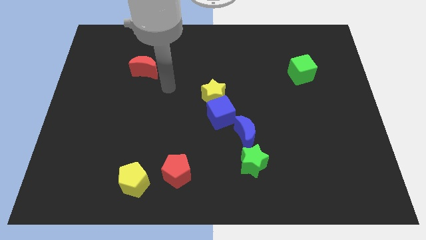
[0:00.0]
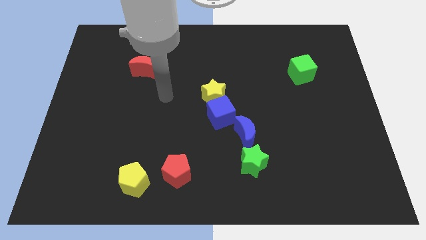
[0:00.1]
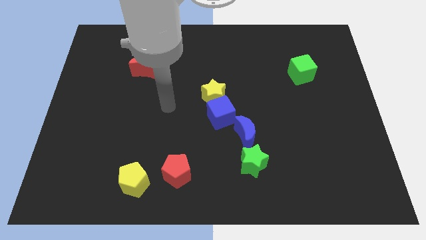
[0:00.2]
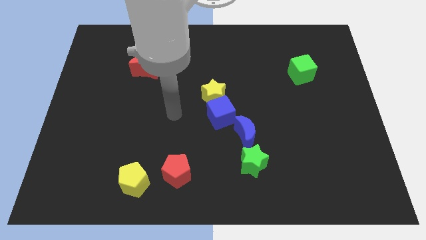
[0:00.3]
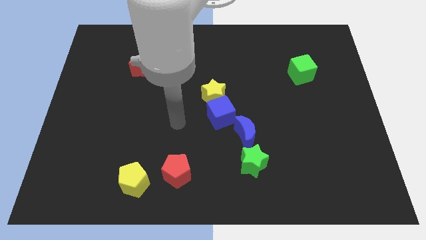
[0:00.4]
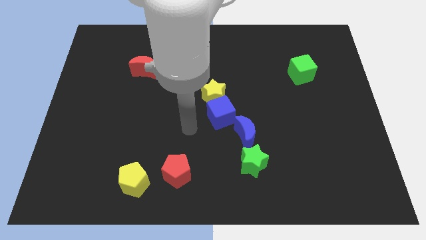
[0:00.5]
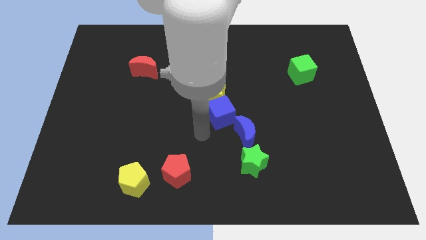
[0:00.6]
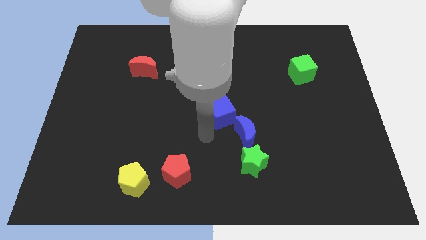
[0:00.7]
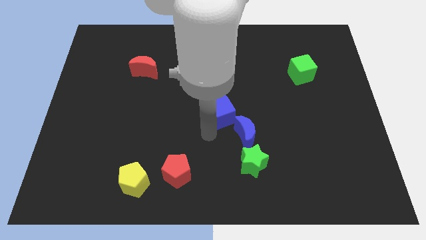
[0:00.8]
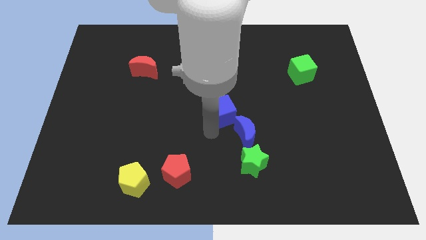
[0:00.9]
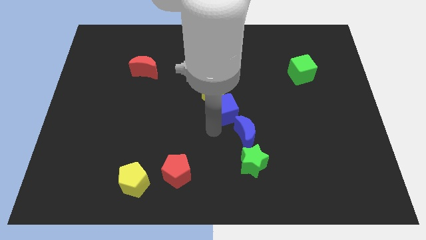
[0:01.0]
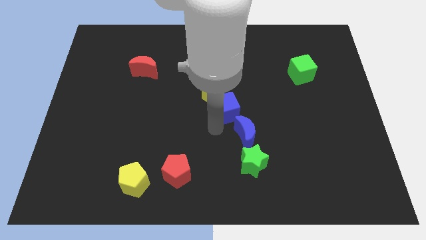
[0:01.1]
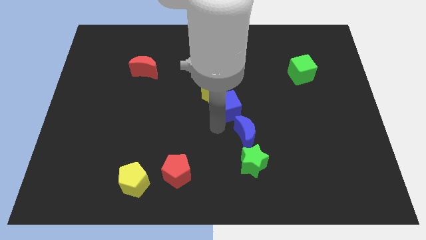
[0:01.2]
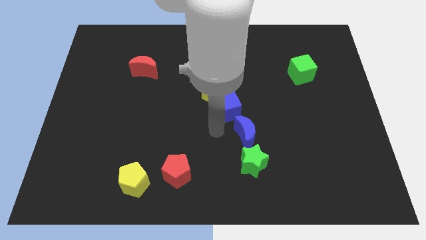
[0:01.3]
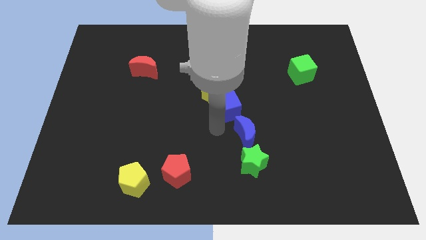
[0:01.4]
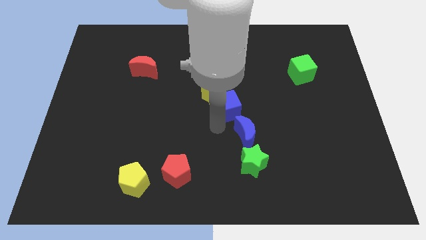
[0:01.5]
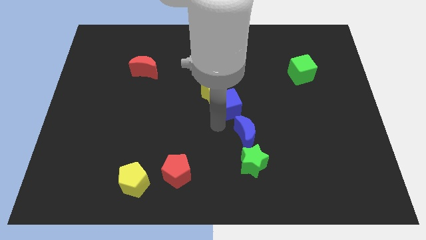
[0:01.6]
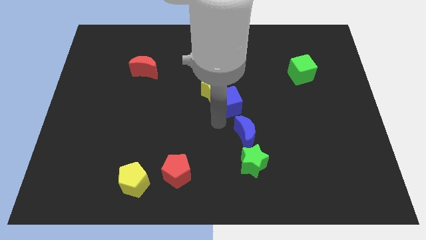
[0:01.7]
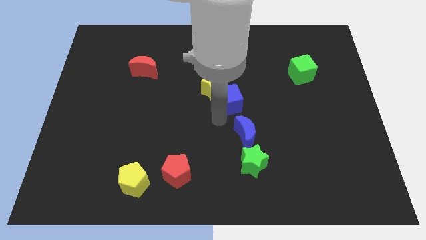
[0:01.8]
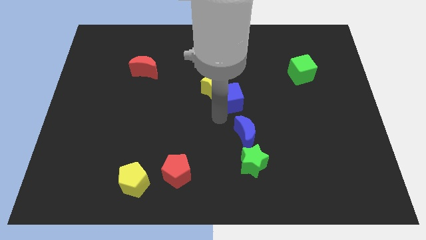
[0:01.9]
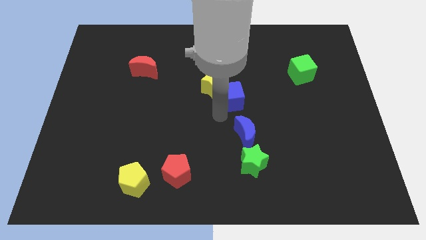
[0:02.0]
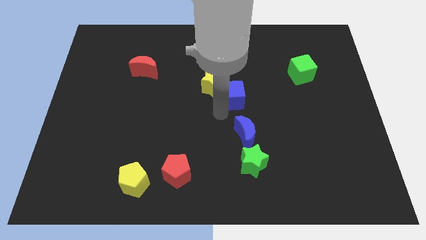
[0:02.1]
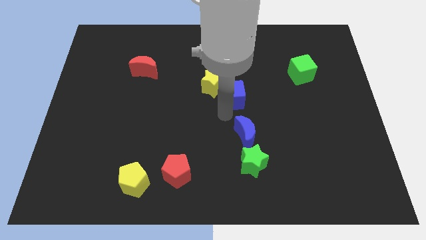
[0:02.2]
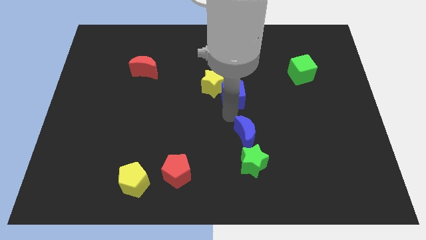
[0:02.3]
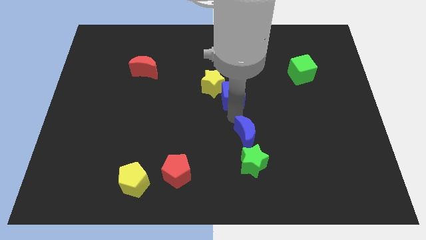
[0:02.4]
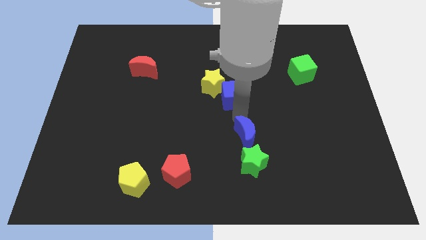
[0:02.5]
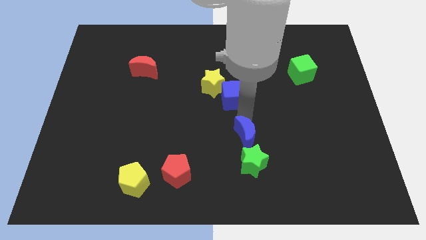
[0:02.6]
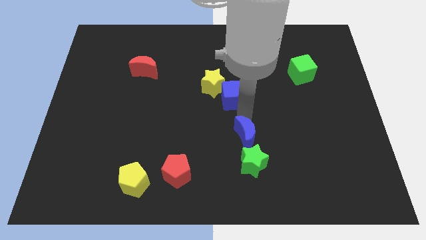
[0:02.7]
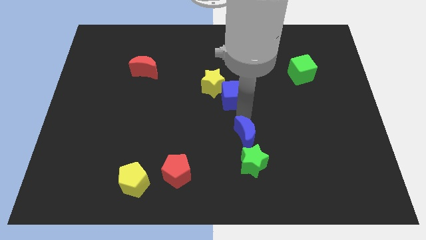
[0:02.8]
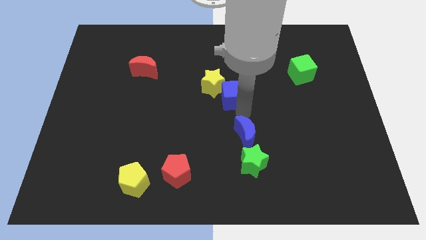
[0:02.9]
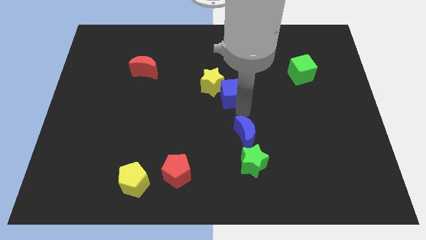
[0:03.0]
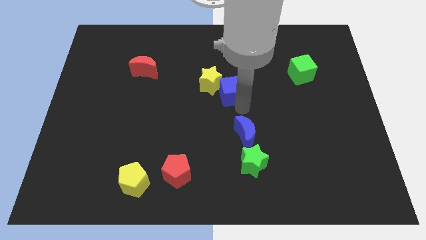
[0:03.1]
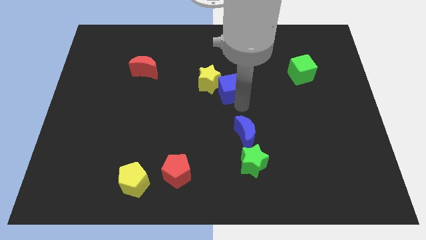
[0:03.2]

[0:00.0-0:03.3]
slide the blue cube a bit up

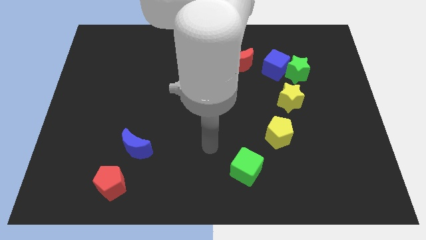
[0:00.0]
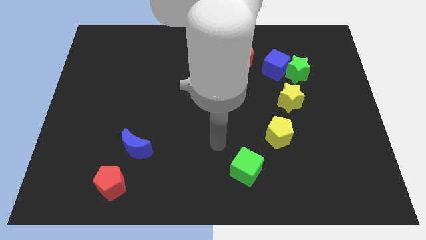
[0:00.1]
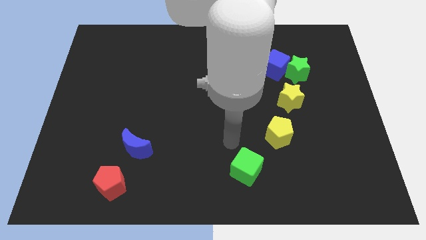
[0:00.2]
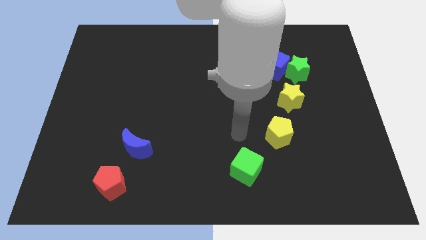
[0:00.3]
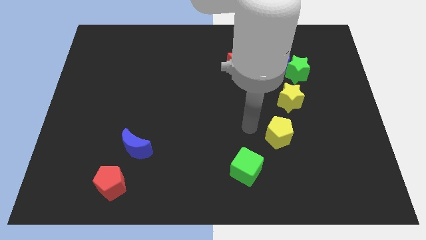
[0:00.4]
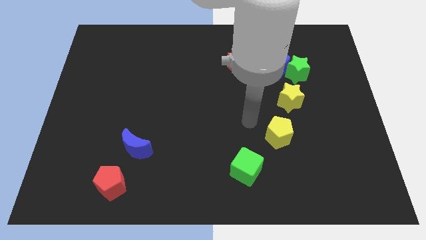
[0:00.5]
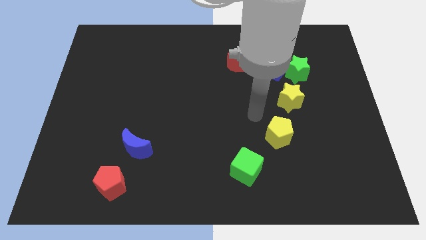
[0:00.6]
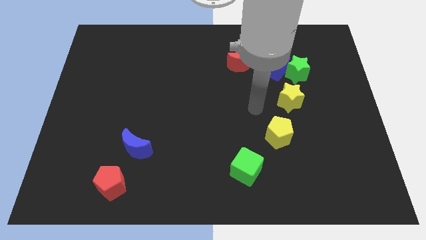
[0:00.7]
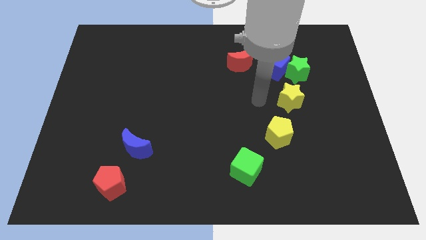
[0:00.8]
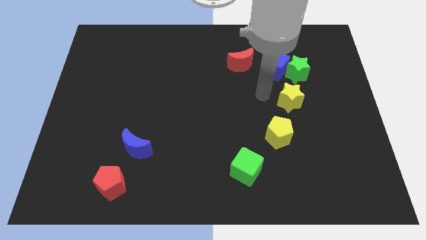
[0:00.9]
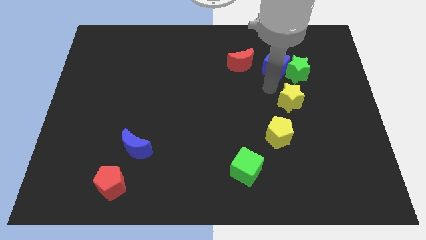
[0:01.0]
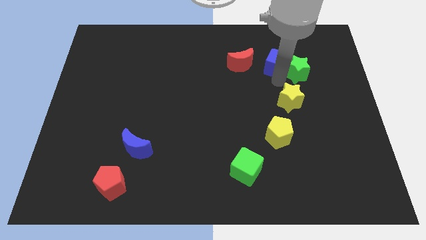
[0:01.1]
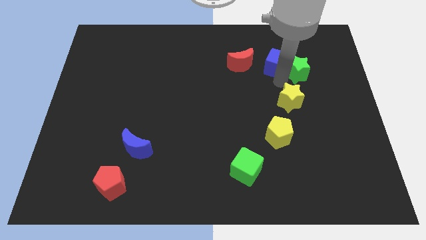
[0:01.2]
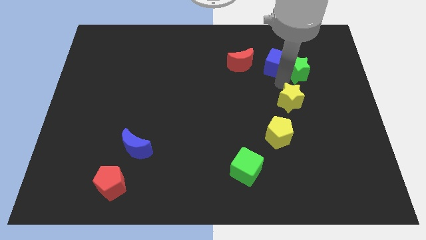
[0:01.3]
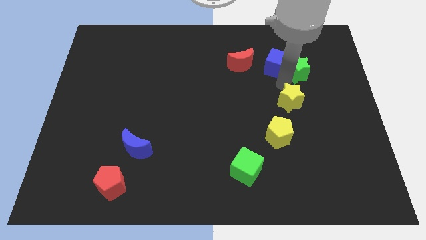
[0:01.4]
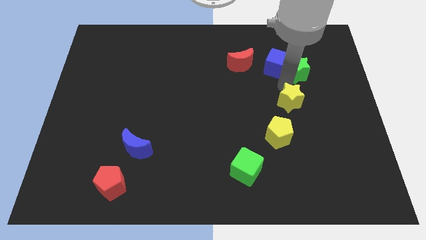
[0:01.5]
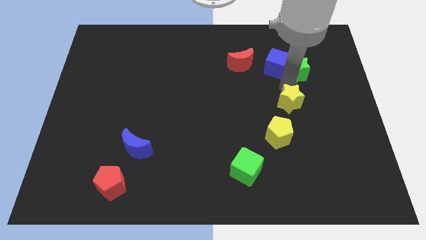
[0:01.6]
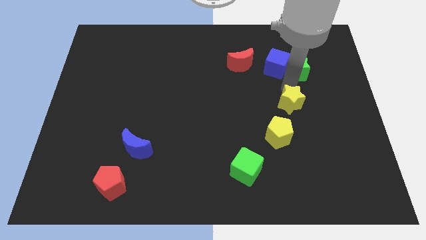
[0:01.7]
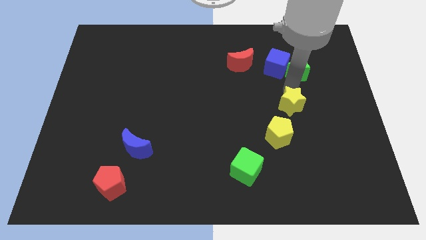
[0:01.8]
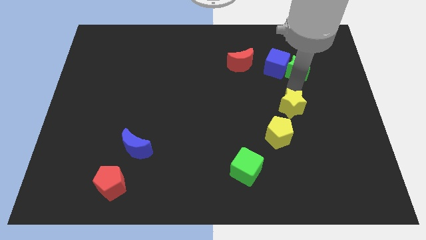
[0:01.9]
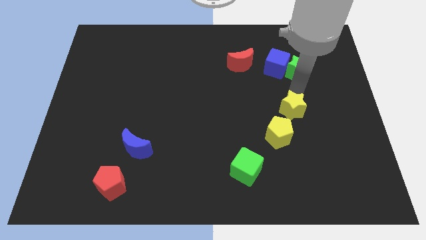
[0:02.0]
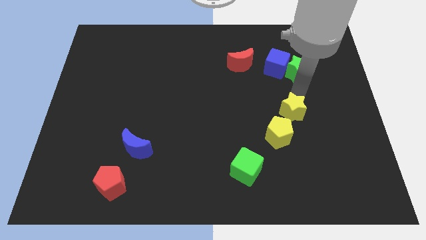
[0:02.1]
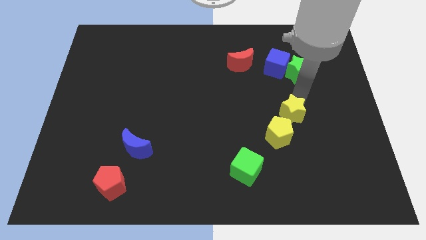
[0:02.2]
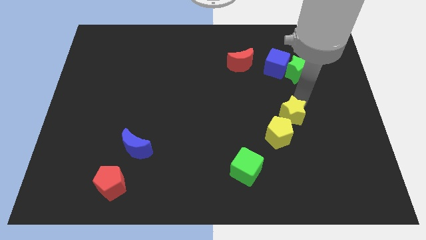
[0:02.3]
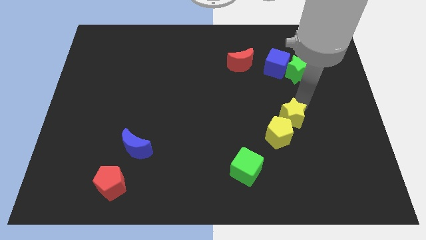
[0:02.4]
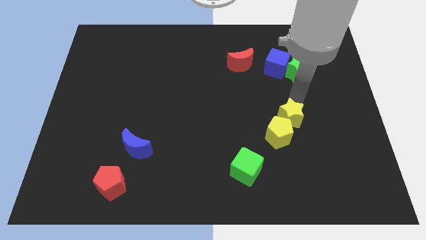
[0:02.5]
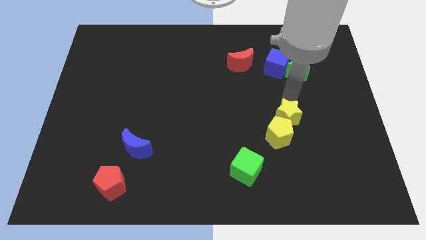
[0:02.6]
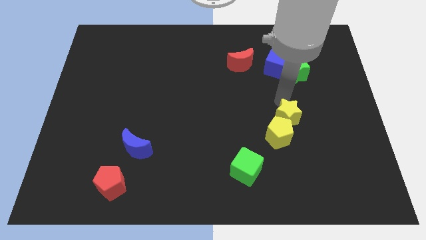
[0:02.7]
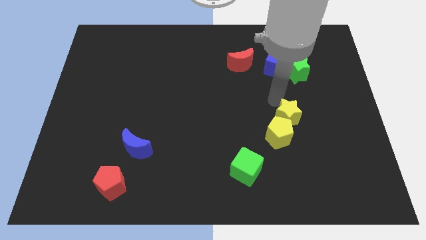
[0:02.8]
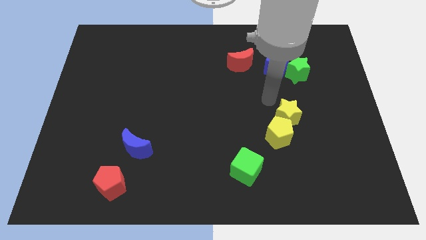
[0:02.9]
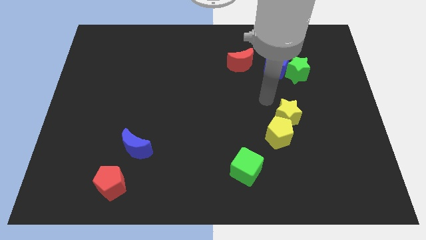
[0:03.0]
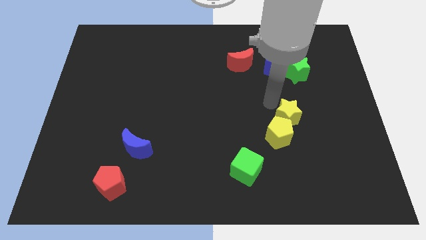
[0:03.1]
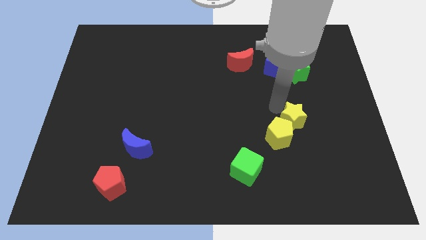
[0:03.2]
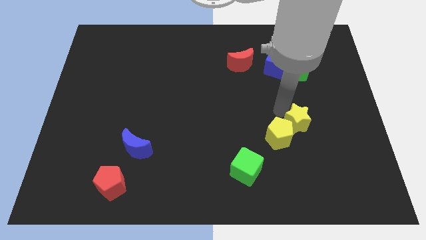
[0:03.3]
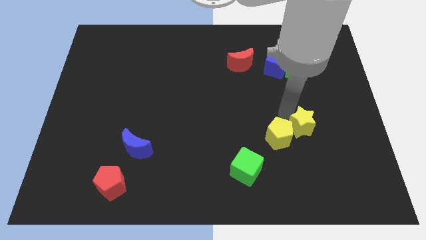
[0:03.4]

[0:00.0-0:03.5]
slightly move the yellow star down

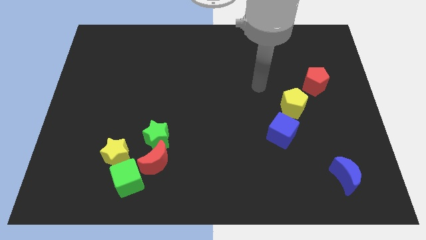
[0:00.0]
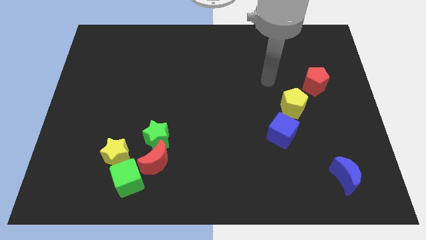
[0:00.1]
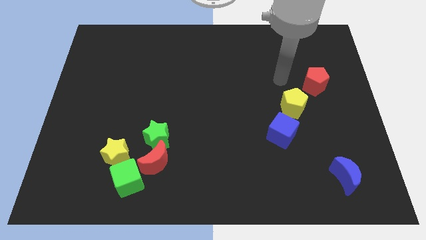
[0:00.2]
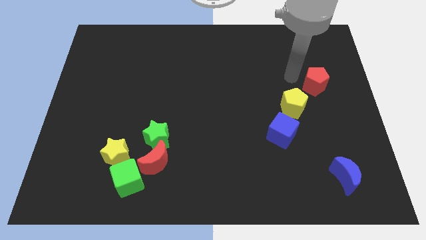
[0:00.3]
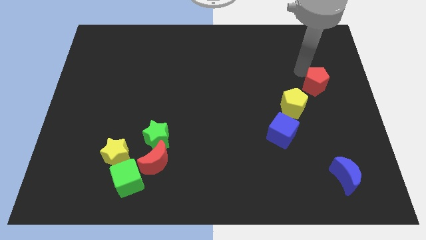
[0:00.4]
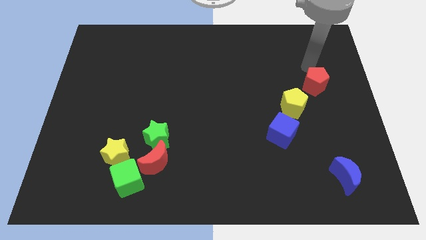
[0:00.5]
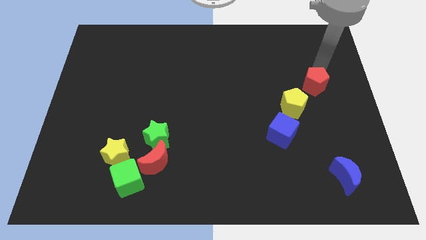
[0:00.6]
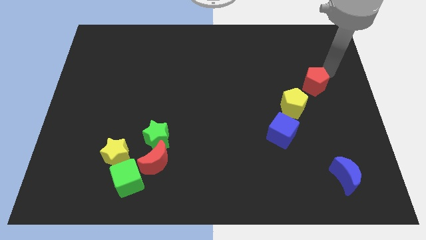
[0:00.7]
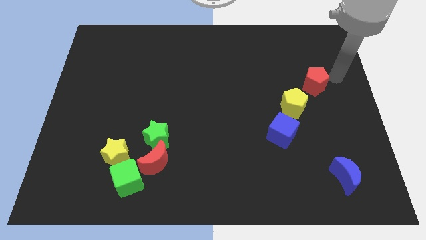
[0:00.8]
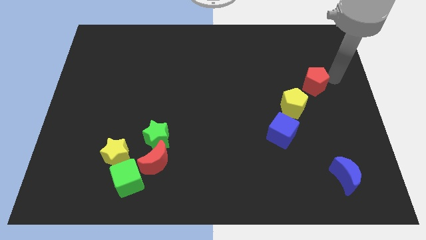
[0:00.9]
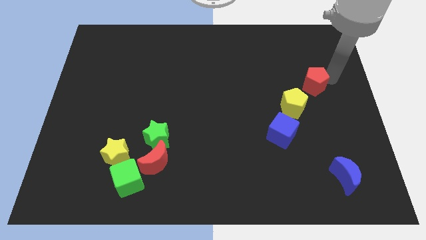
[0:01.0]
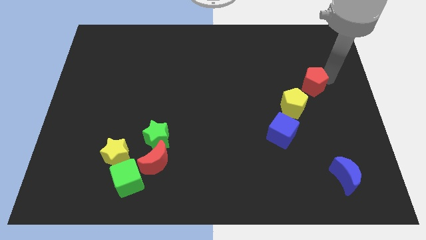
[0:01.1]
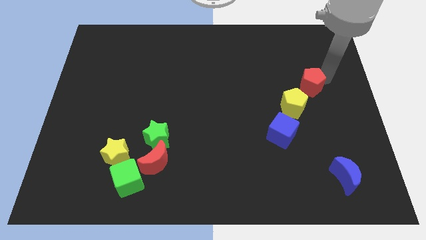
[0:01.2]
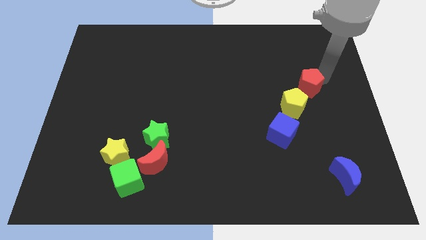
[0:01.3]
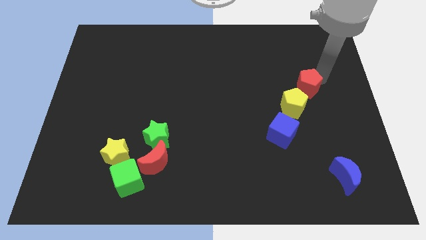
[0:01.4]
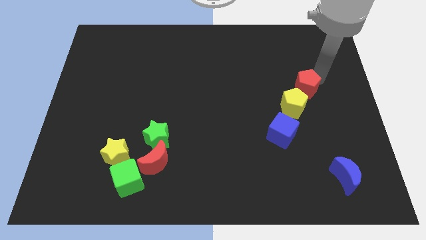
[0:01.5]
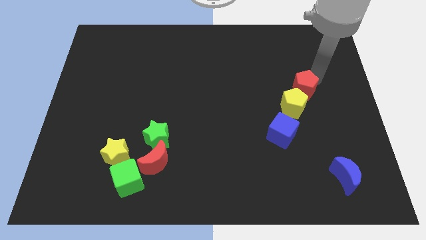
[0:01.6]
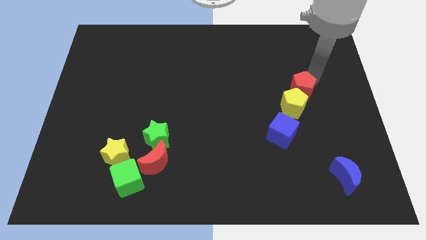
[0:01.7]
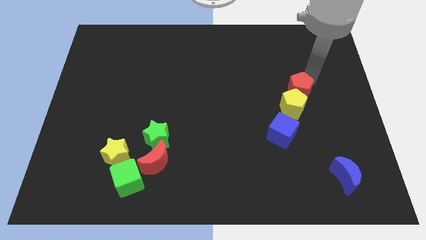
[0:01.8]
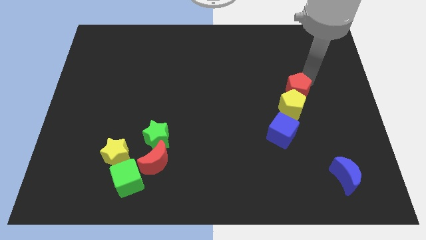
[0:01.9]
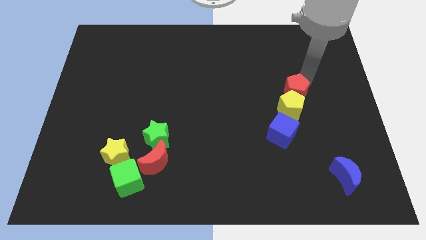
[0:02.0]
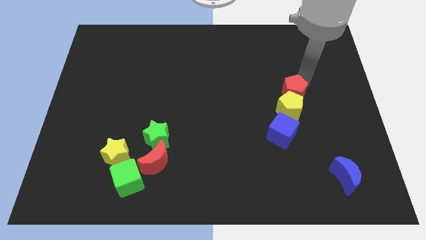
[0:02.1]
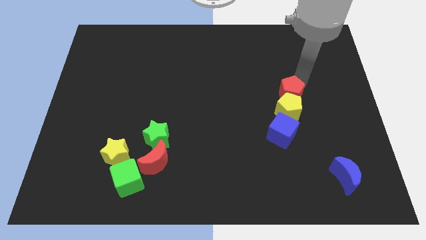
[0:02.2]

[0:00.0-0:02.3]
slide the red pentagon a bit downwards and left
